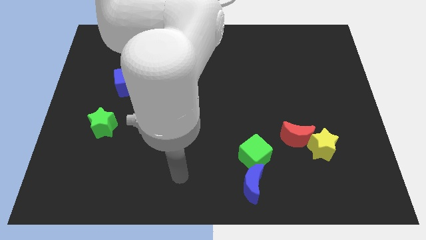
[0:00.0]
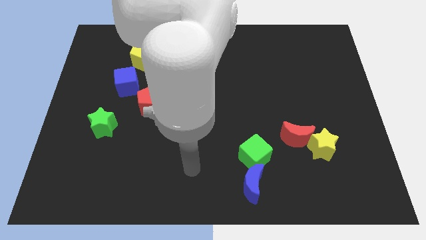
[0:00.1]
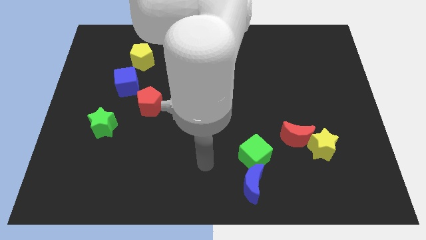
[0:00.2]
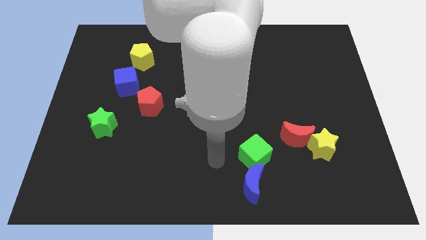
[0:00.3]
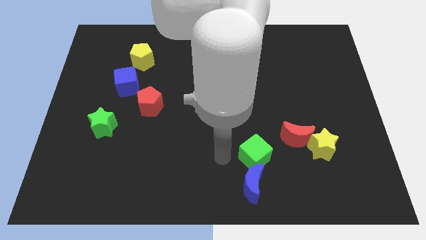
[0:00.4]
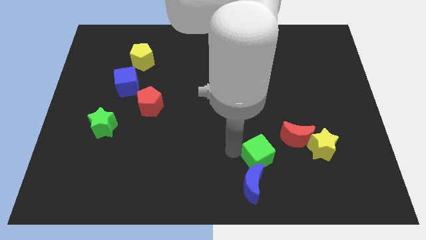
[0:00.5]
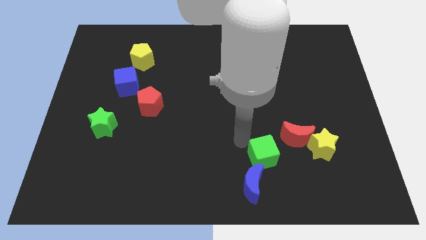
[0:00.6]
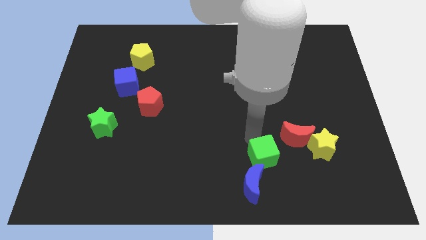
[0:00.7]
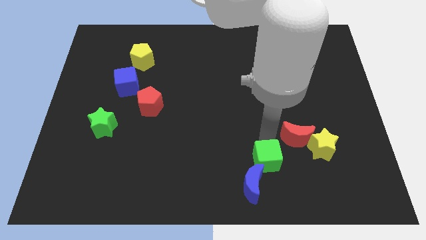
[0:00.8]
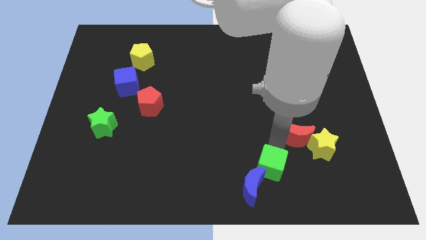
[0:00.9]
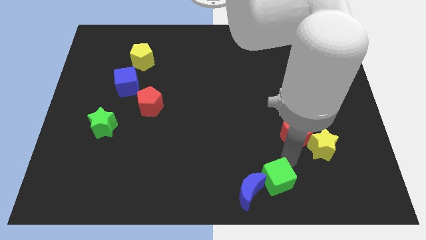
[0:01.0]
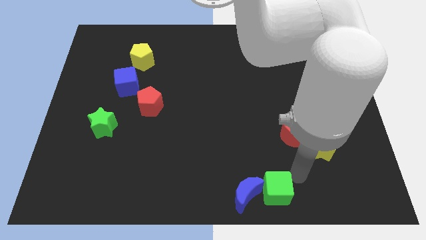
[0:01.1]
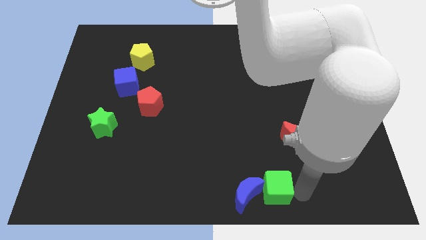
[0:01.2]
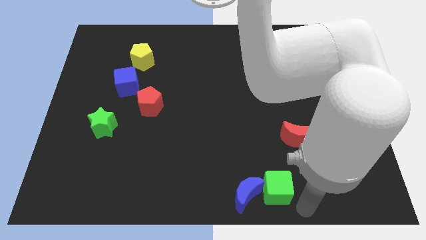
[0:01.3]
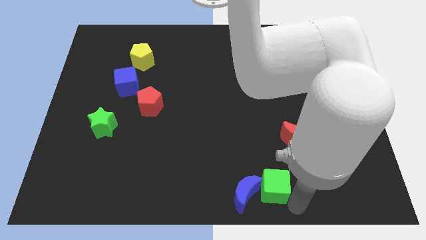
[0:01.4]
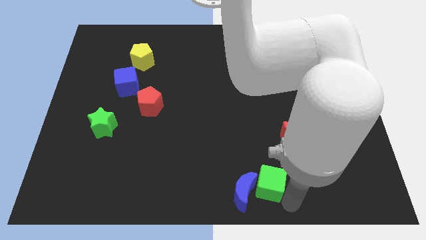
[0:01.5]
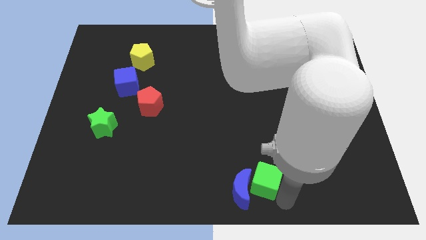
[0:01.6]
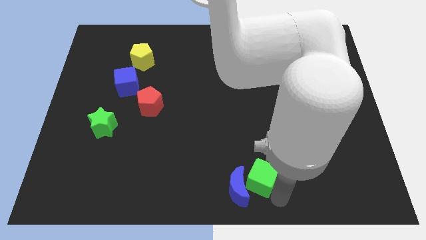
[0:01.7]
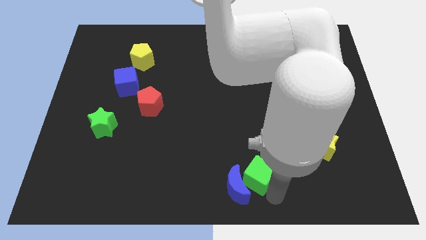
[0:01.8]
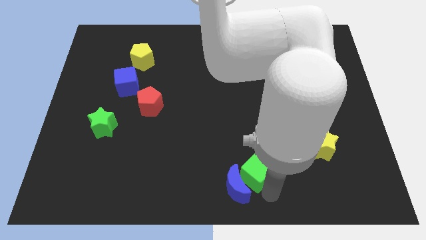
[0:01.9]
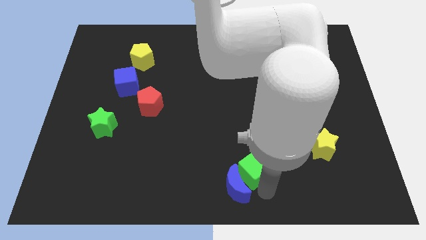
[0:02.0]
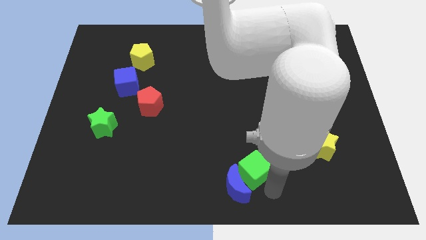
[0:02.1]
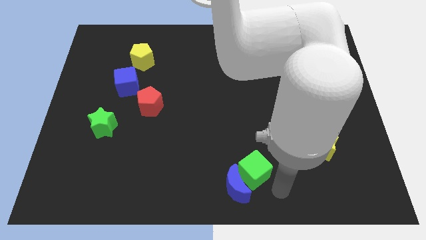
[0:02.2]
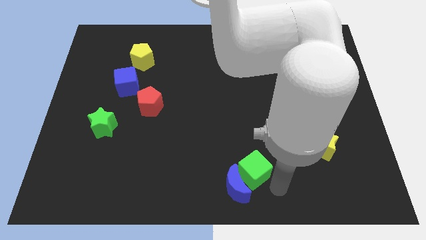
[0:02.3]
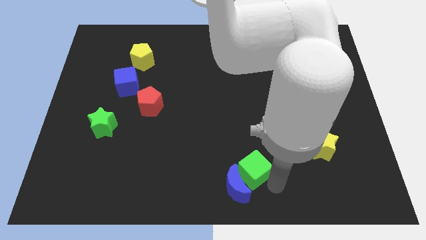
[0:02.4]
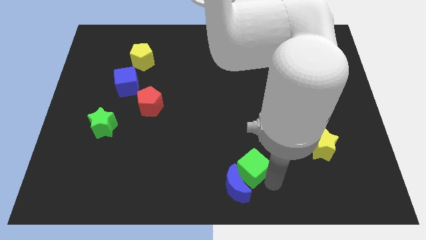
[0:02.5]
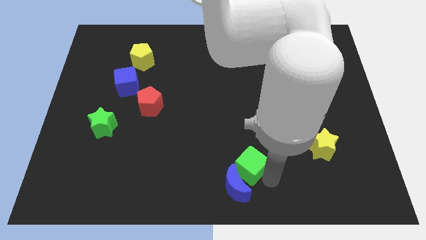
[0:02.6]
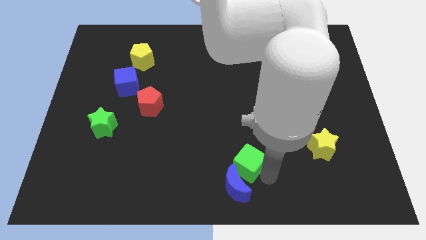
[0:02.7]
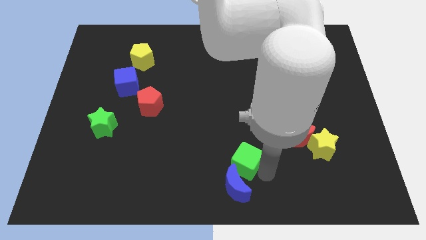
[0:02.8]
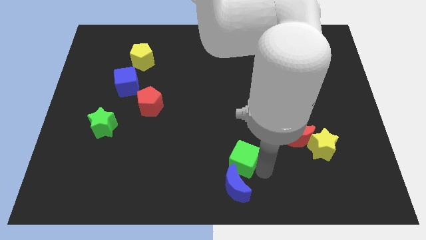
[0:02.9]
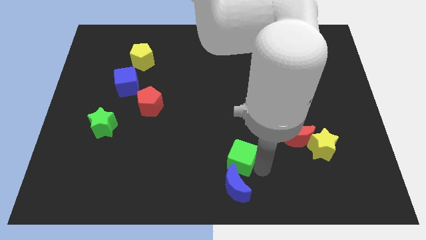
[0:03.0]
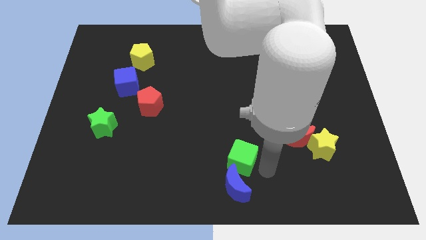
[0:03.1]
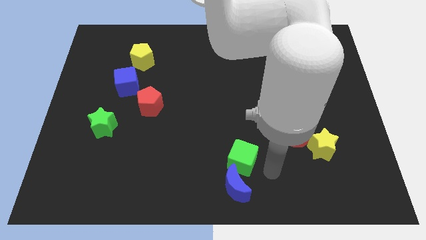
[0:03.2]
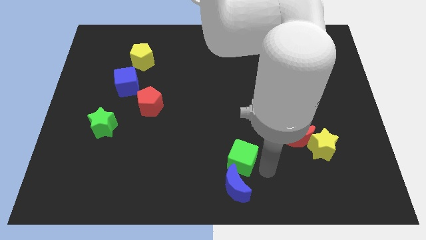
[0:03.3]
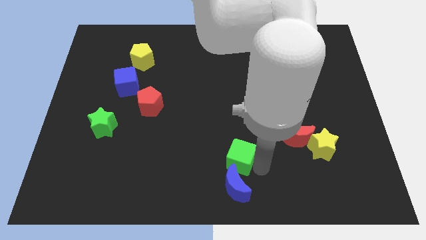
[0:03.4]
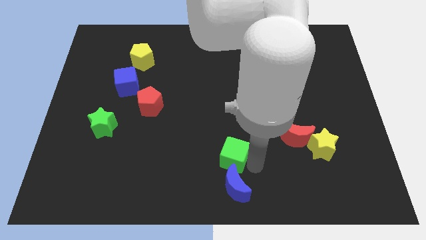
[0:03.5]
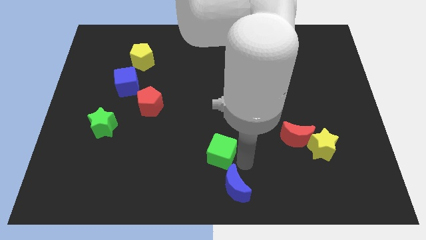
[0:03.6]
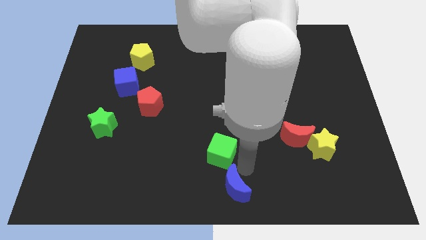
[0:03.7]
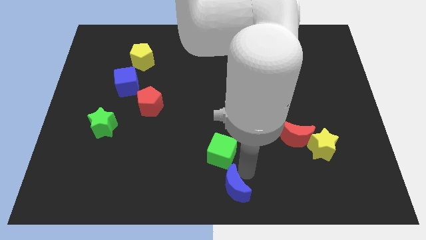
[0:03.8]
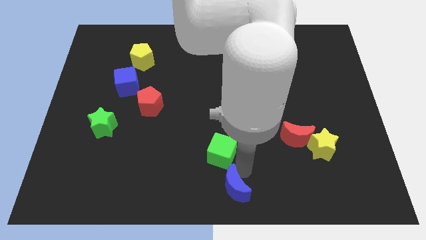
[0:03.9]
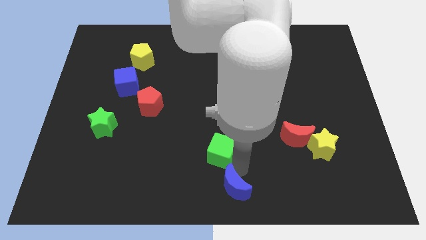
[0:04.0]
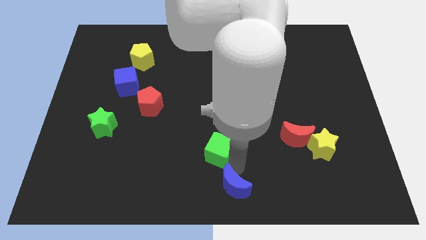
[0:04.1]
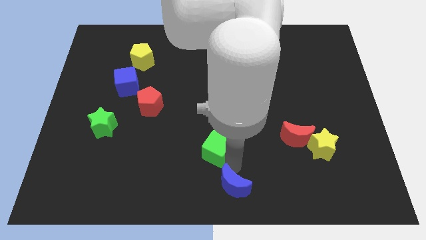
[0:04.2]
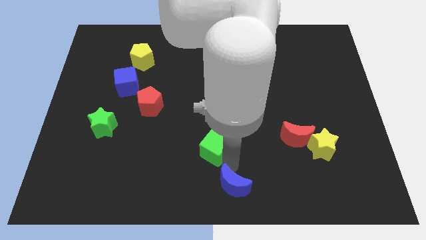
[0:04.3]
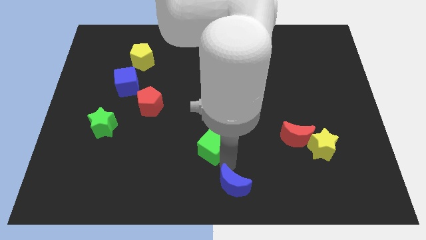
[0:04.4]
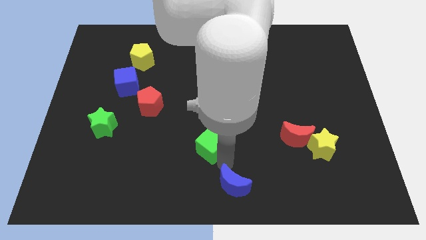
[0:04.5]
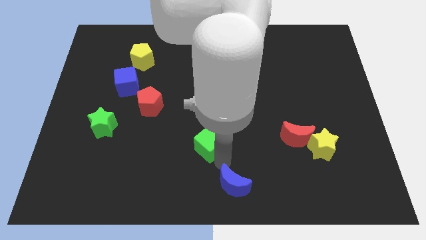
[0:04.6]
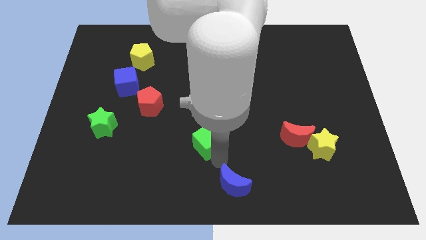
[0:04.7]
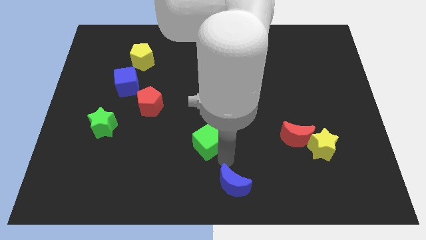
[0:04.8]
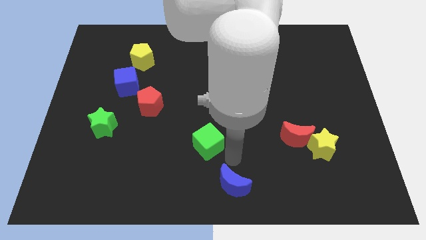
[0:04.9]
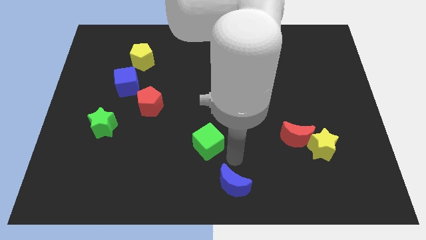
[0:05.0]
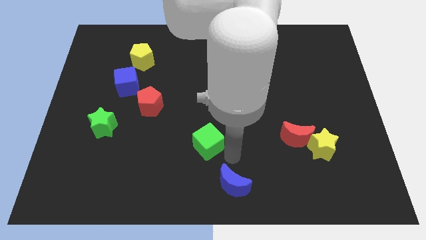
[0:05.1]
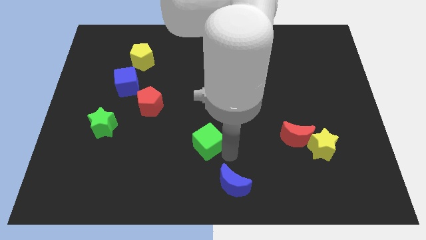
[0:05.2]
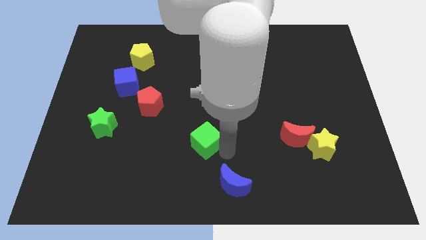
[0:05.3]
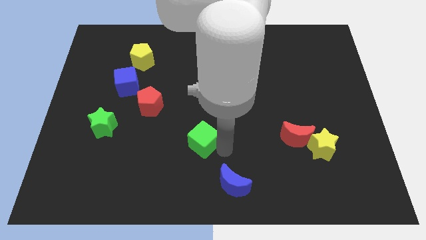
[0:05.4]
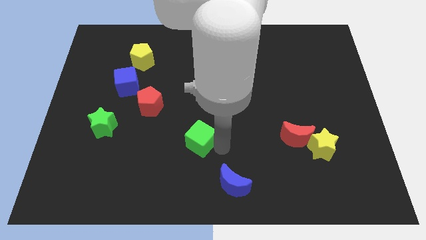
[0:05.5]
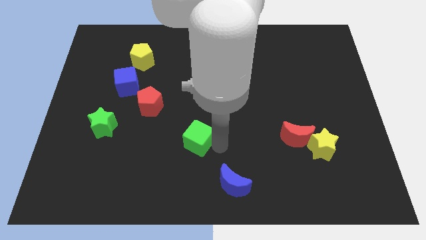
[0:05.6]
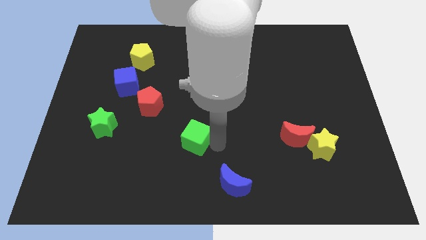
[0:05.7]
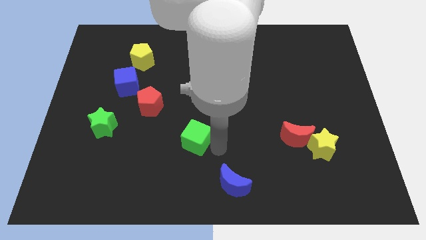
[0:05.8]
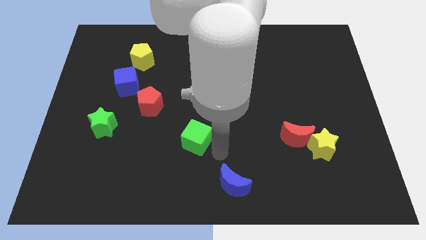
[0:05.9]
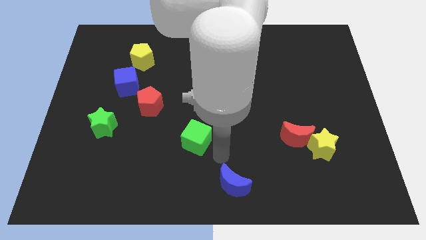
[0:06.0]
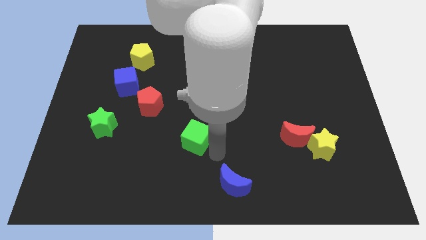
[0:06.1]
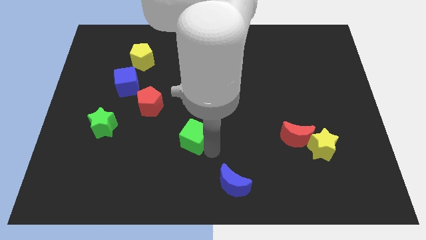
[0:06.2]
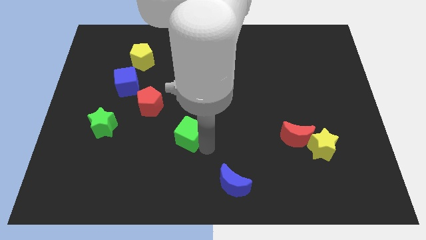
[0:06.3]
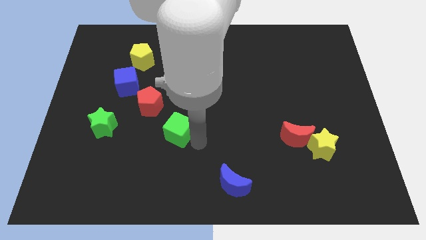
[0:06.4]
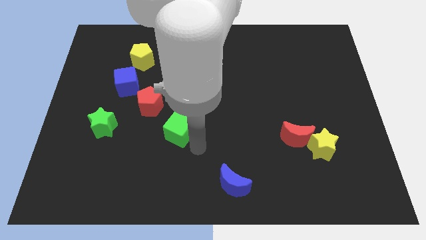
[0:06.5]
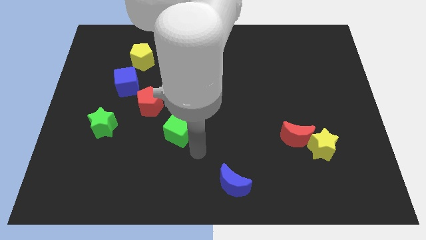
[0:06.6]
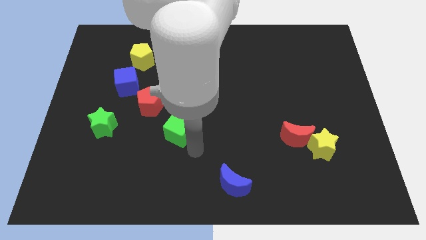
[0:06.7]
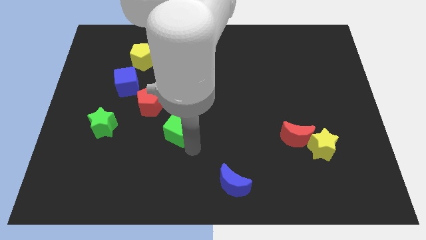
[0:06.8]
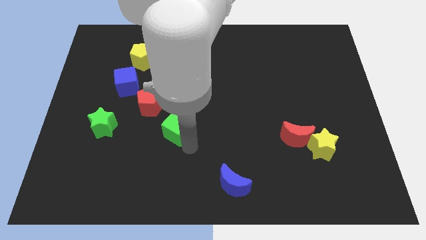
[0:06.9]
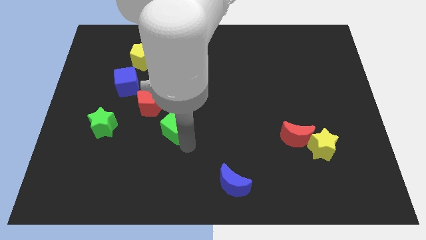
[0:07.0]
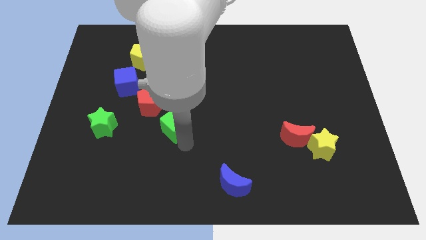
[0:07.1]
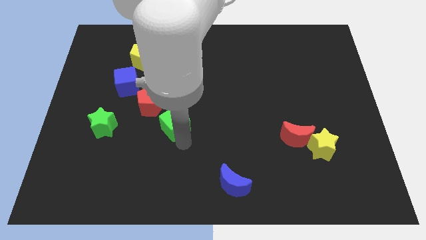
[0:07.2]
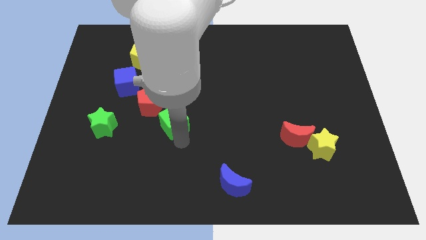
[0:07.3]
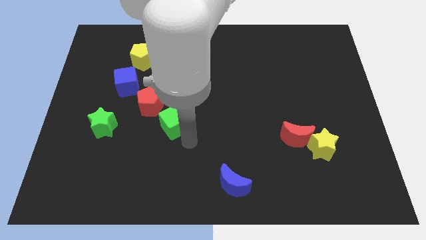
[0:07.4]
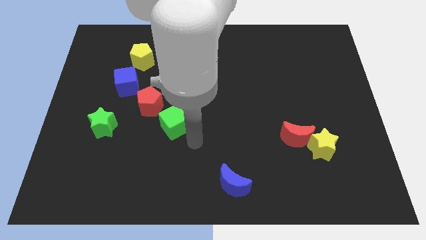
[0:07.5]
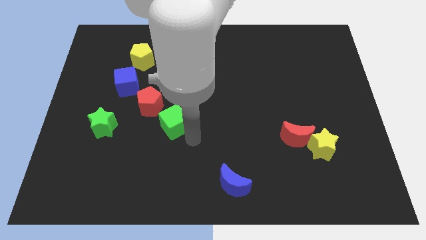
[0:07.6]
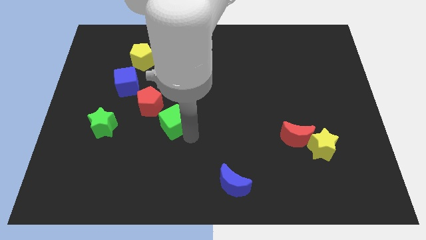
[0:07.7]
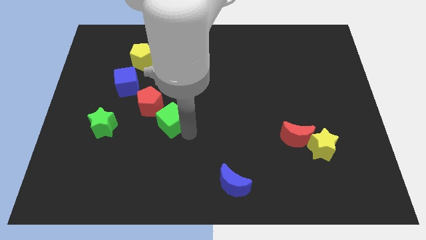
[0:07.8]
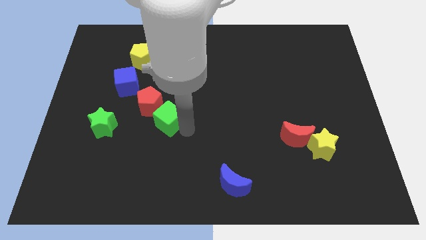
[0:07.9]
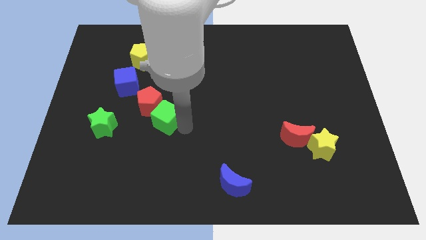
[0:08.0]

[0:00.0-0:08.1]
slide the green cube to the red pentagon
